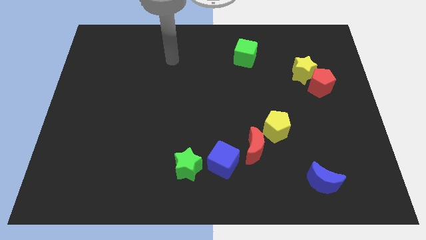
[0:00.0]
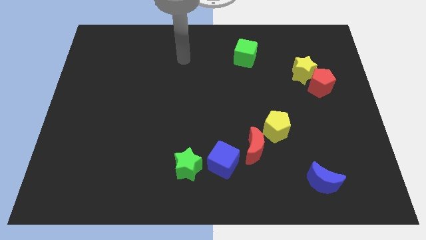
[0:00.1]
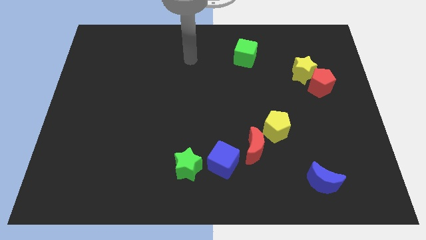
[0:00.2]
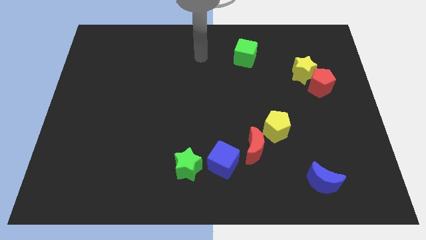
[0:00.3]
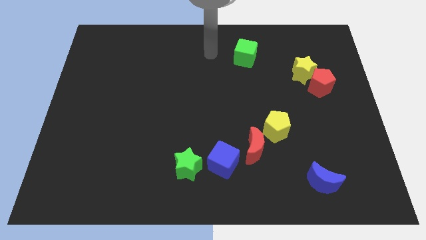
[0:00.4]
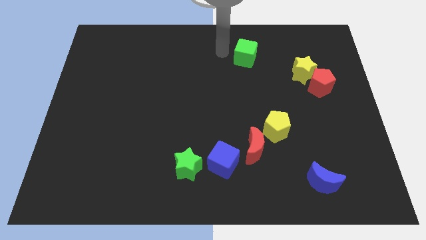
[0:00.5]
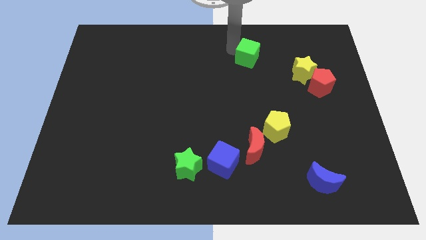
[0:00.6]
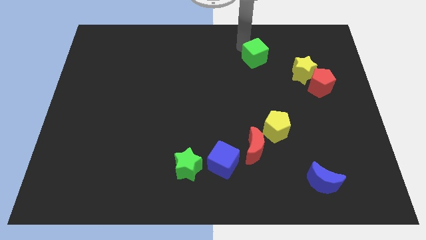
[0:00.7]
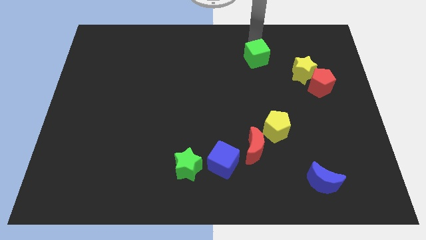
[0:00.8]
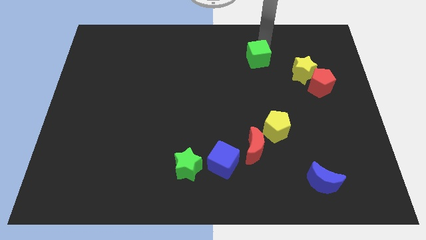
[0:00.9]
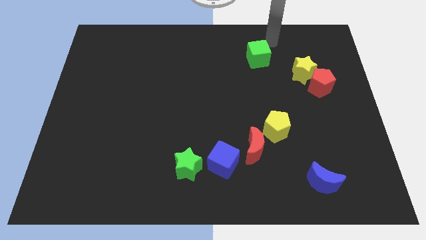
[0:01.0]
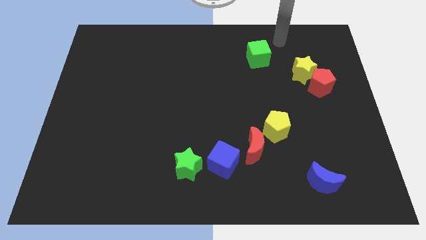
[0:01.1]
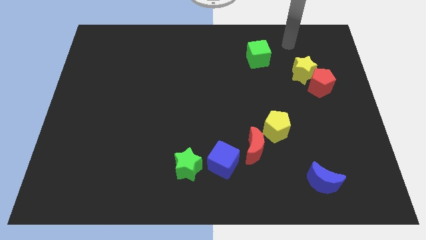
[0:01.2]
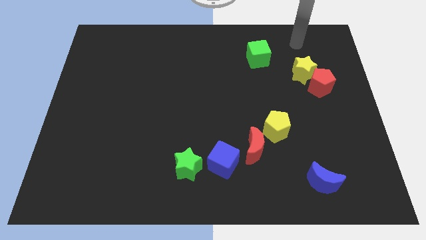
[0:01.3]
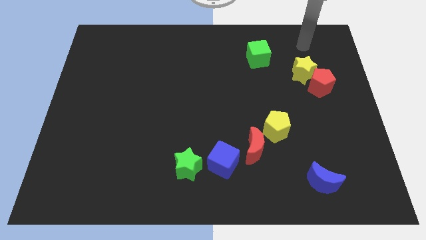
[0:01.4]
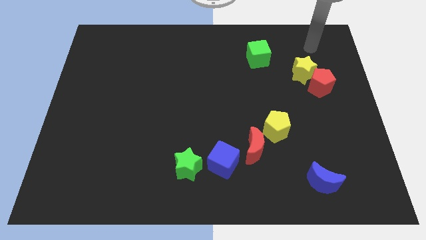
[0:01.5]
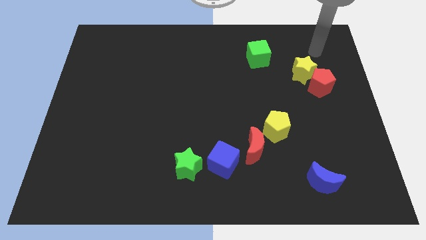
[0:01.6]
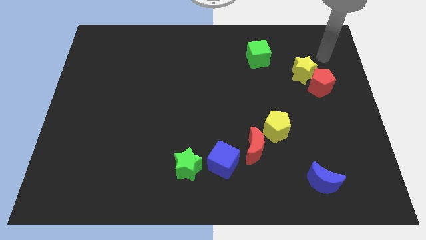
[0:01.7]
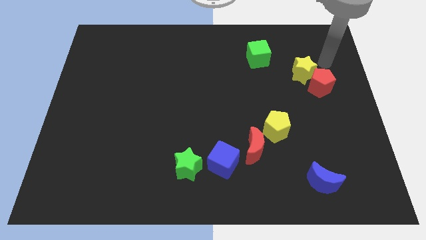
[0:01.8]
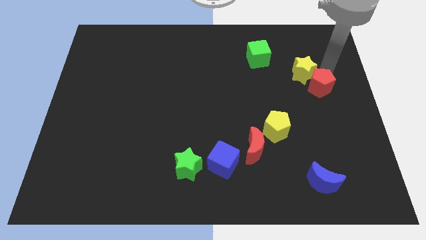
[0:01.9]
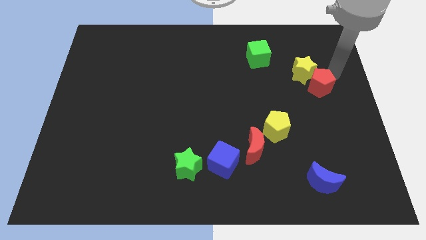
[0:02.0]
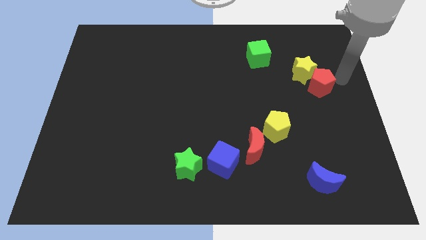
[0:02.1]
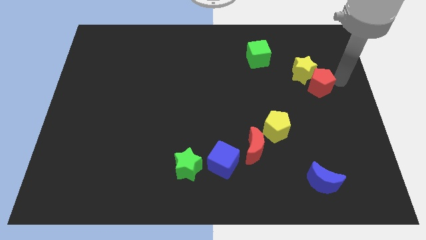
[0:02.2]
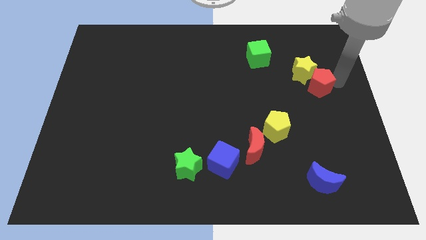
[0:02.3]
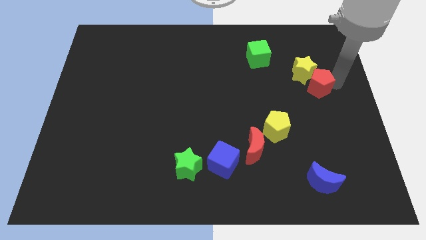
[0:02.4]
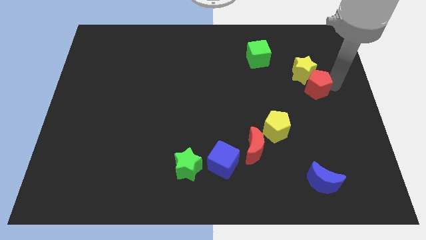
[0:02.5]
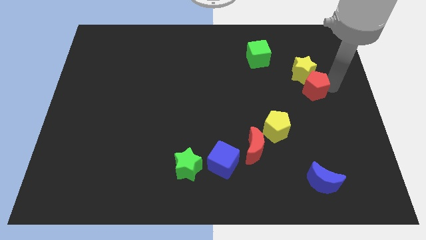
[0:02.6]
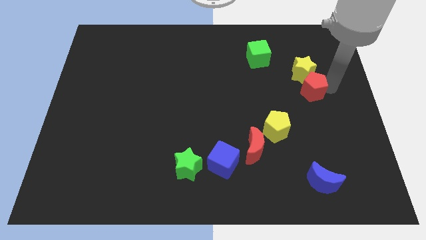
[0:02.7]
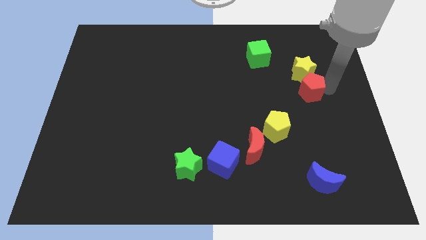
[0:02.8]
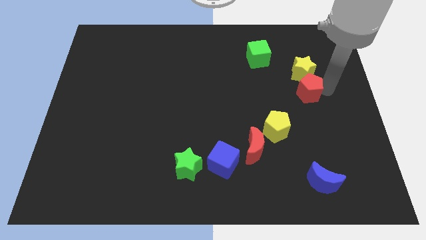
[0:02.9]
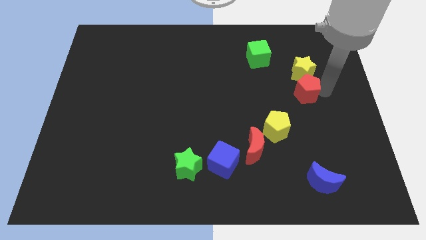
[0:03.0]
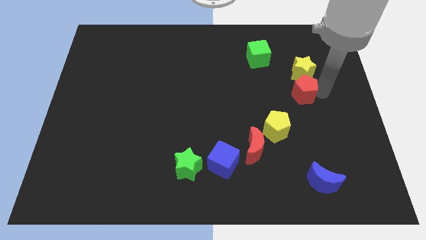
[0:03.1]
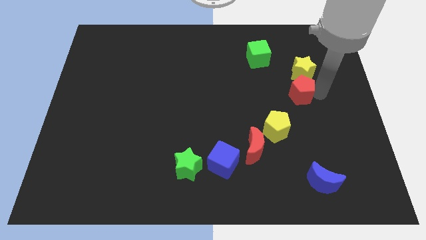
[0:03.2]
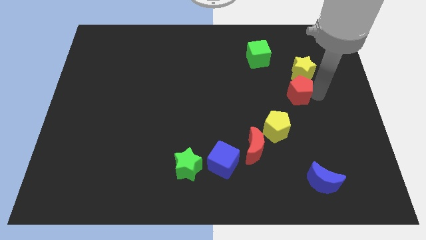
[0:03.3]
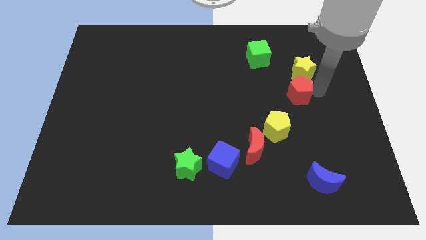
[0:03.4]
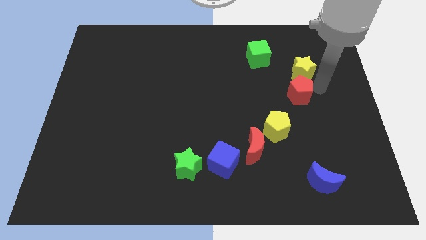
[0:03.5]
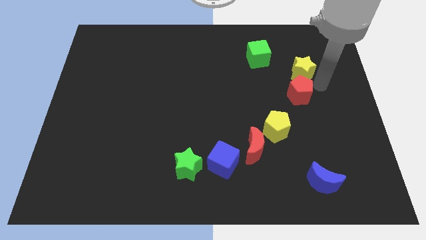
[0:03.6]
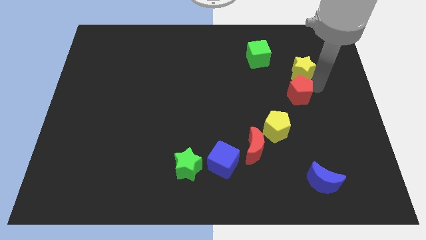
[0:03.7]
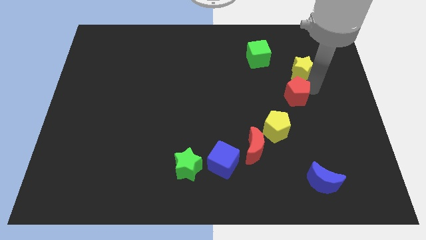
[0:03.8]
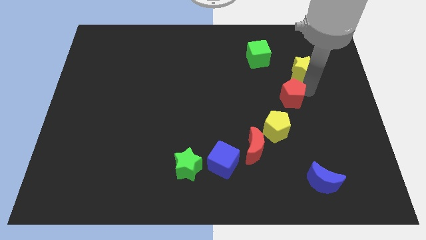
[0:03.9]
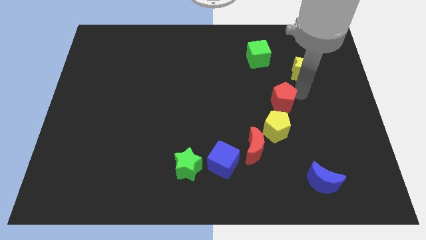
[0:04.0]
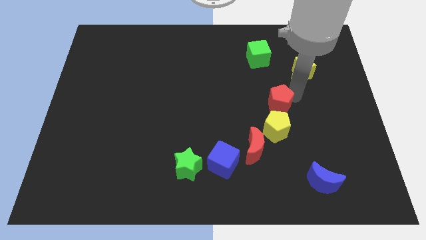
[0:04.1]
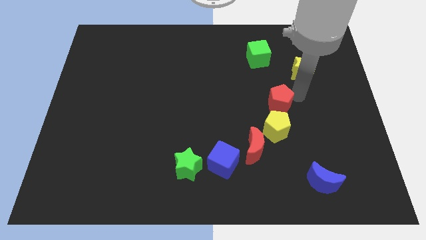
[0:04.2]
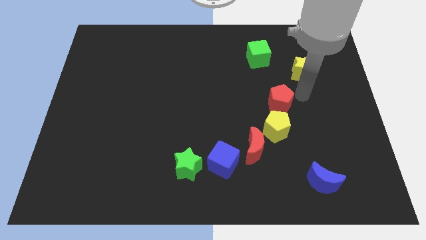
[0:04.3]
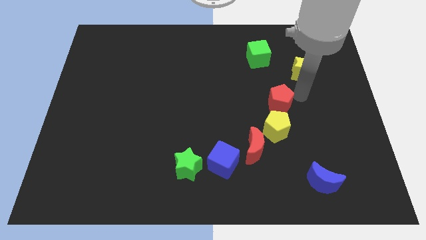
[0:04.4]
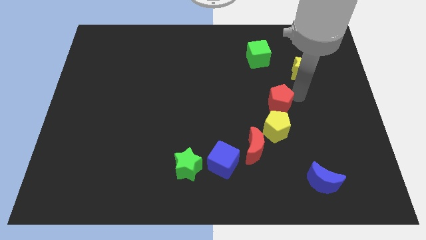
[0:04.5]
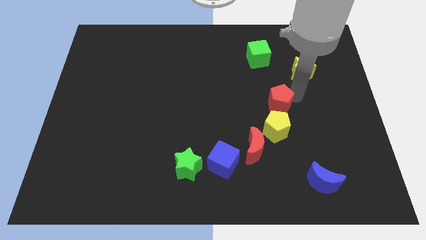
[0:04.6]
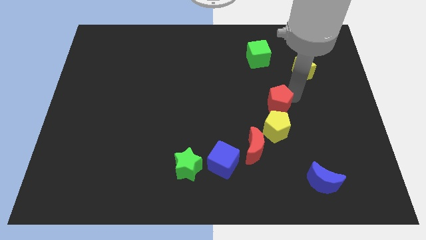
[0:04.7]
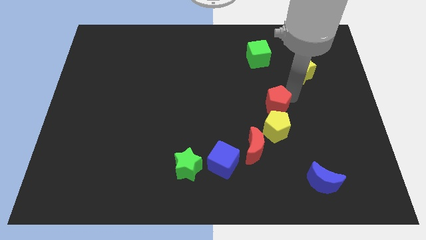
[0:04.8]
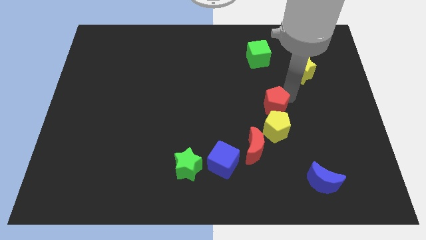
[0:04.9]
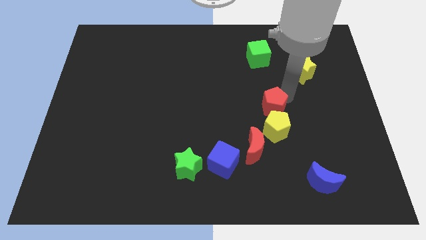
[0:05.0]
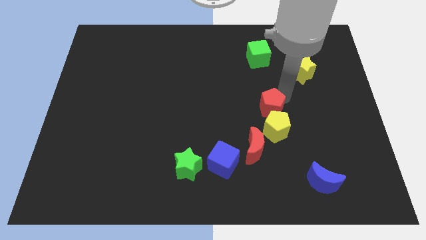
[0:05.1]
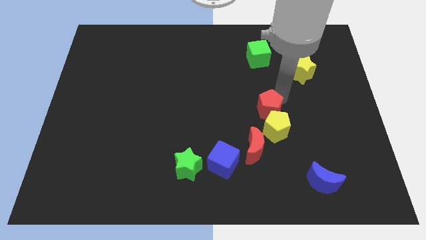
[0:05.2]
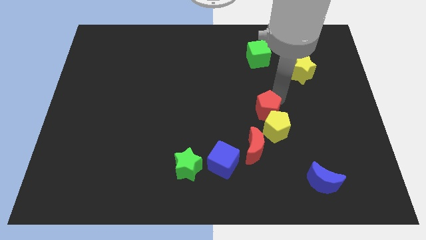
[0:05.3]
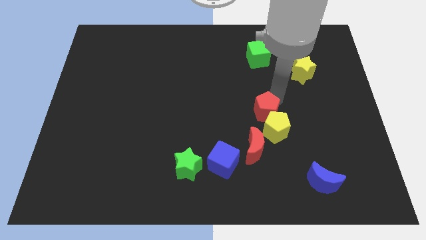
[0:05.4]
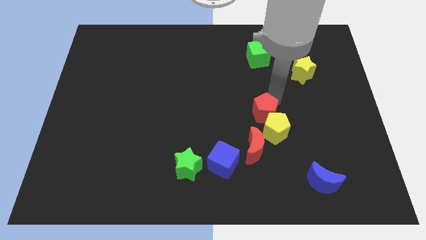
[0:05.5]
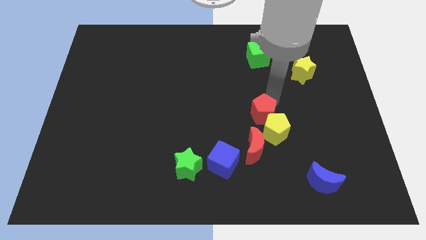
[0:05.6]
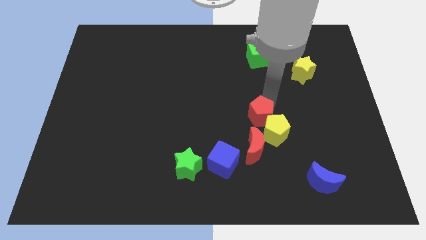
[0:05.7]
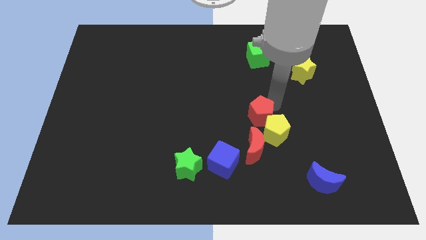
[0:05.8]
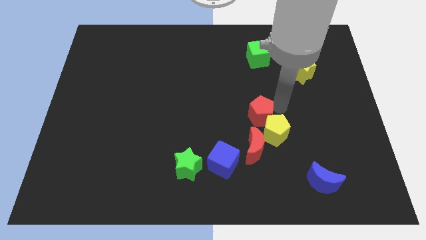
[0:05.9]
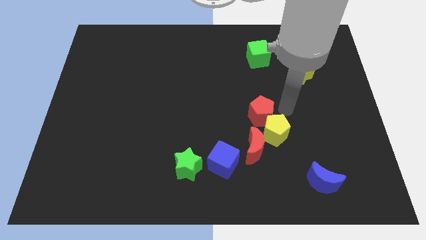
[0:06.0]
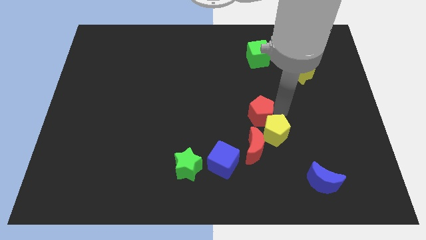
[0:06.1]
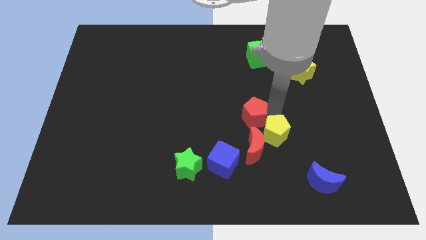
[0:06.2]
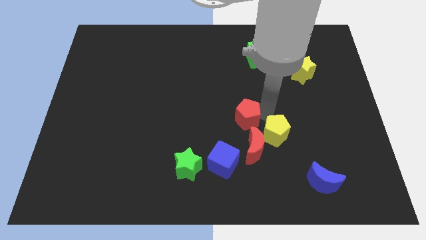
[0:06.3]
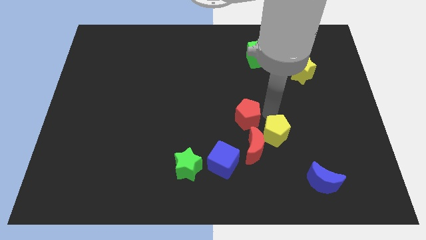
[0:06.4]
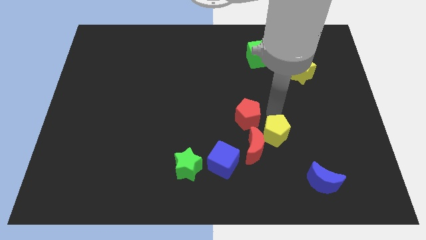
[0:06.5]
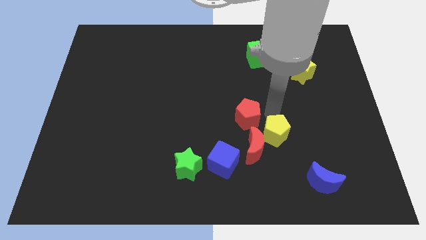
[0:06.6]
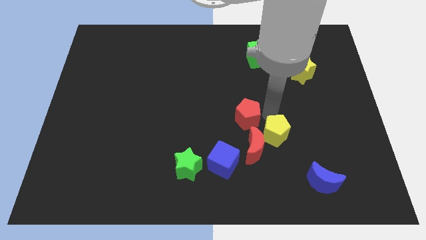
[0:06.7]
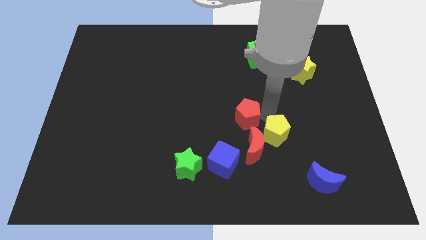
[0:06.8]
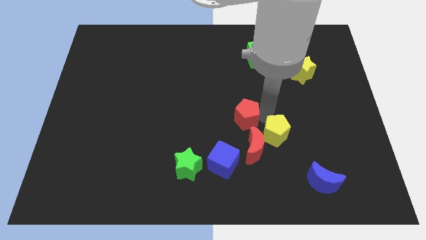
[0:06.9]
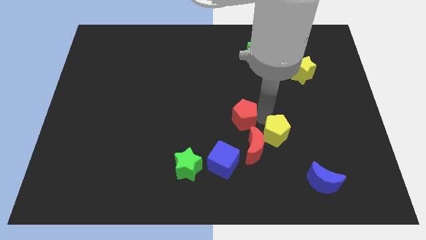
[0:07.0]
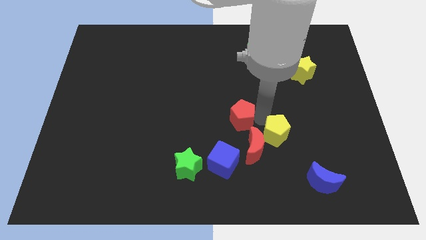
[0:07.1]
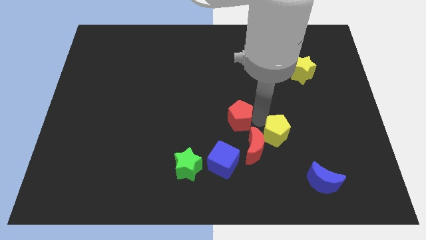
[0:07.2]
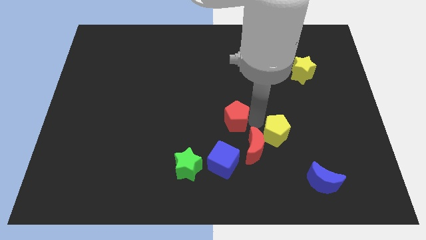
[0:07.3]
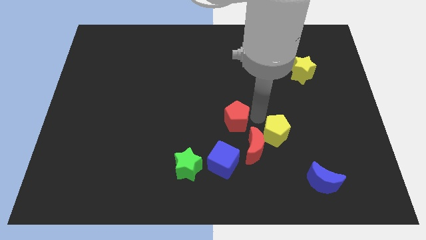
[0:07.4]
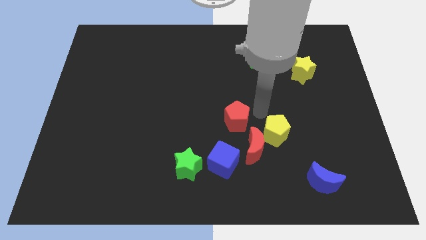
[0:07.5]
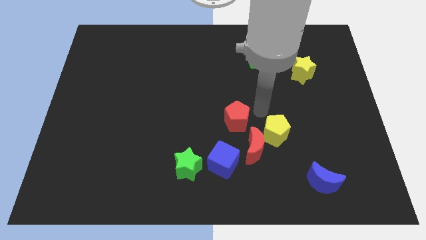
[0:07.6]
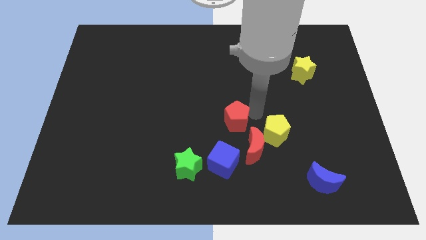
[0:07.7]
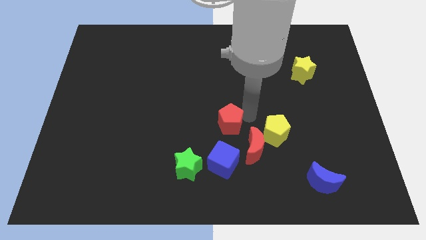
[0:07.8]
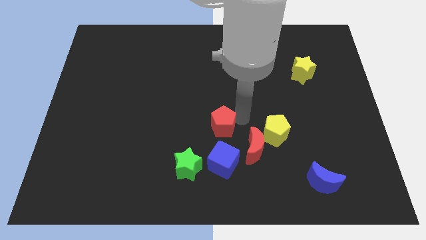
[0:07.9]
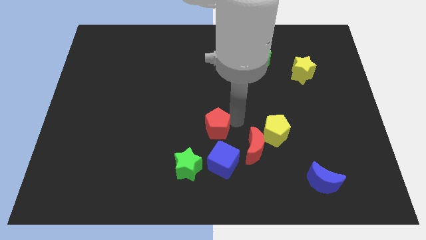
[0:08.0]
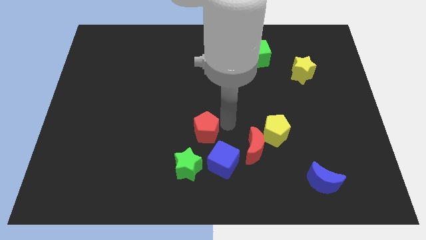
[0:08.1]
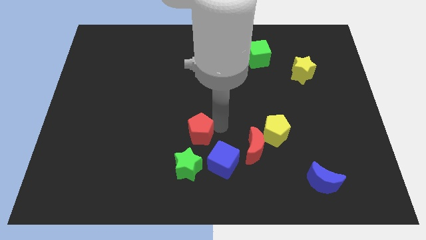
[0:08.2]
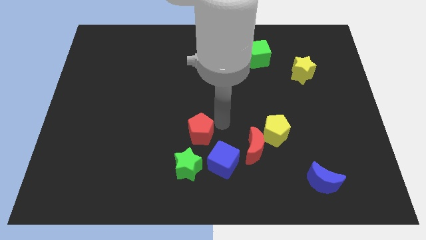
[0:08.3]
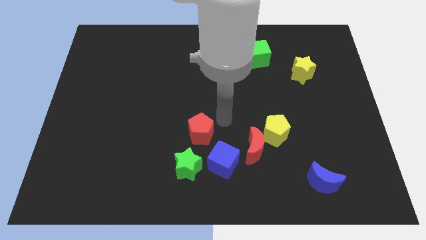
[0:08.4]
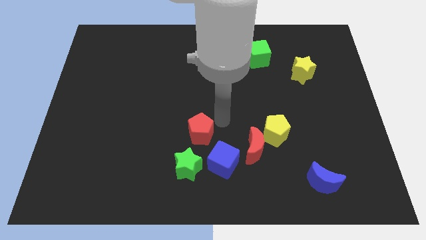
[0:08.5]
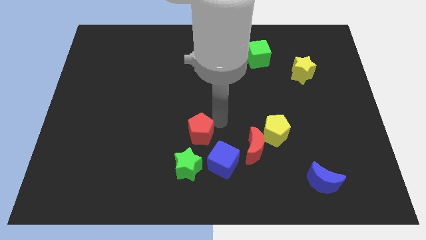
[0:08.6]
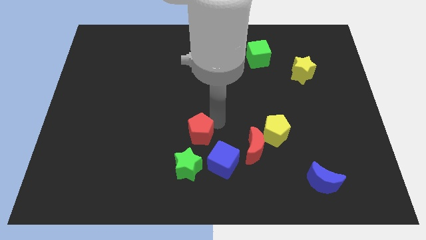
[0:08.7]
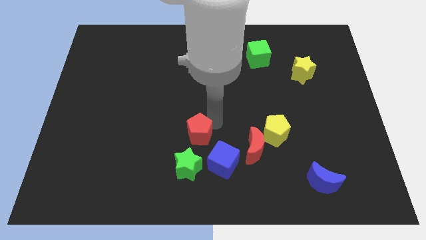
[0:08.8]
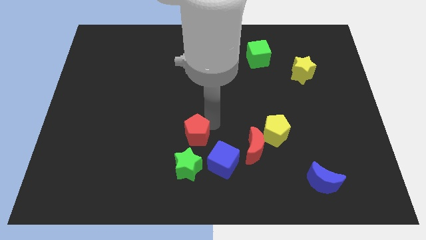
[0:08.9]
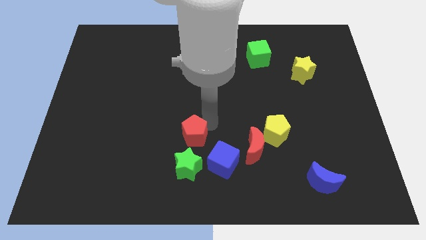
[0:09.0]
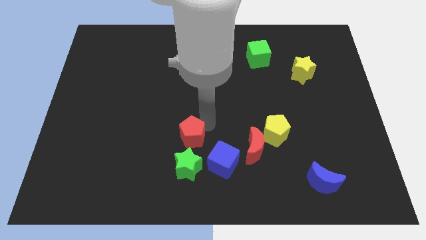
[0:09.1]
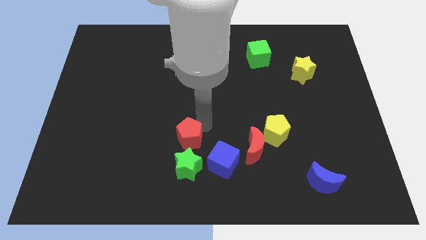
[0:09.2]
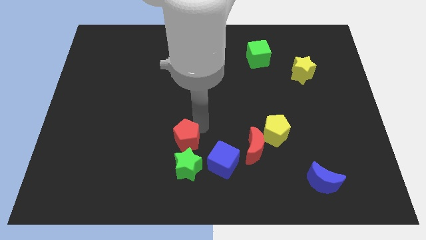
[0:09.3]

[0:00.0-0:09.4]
slide the red pentagon diagonally up and to the left of the green star
